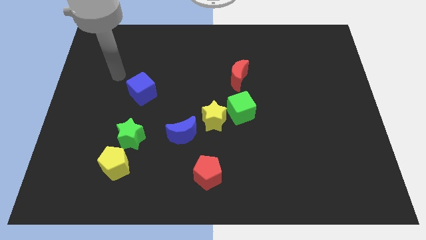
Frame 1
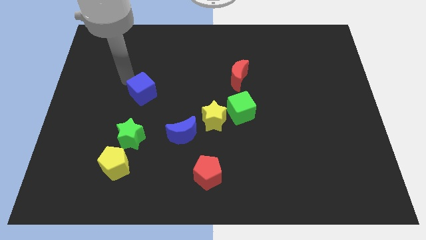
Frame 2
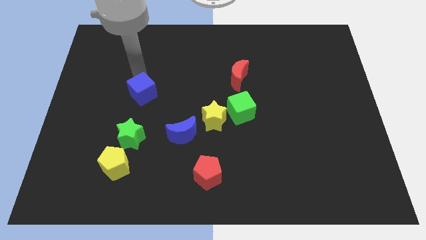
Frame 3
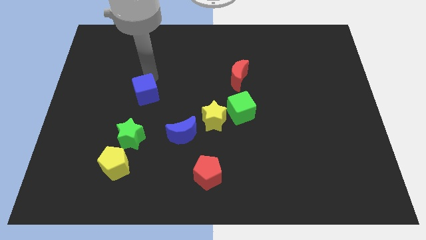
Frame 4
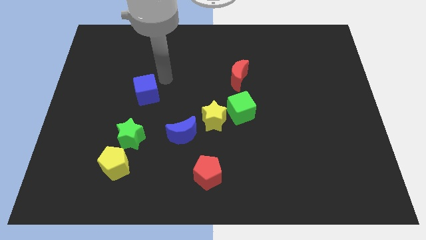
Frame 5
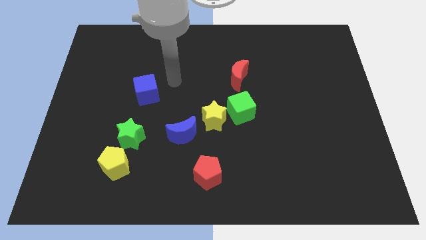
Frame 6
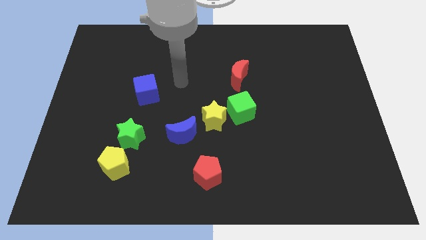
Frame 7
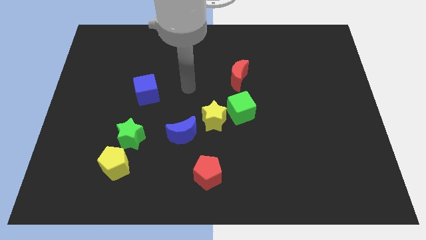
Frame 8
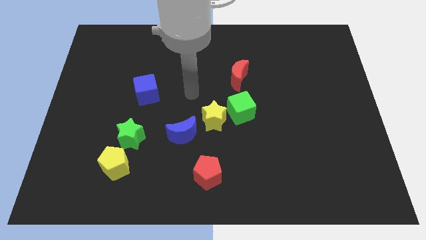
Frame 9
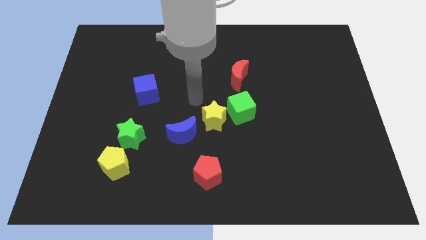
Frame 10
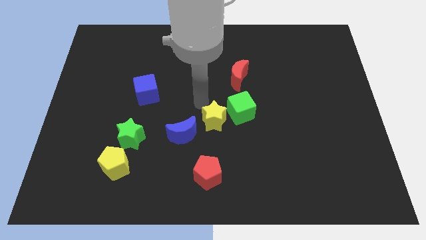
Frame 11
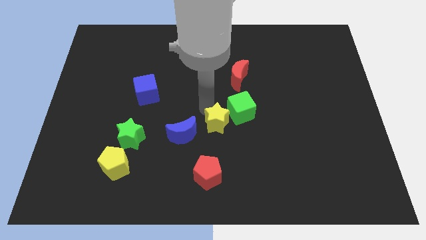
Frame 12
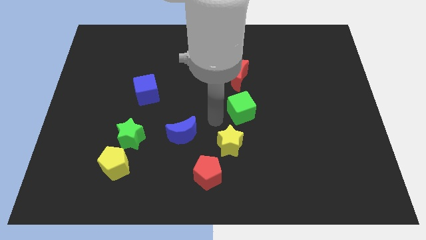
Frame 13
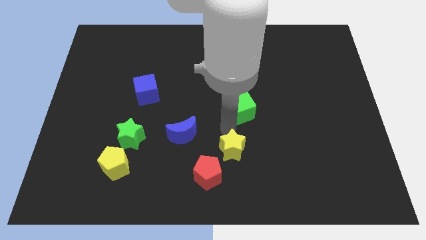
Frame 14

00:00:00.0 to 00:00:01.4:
move the green cube away from the yellow star

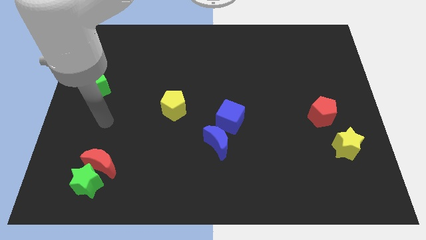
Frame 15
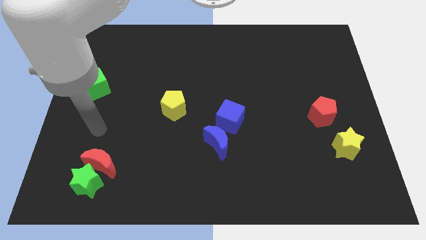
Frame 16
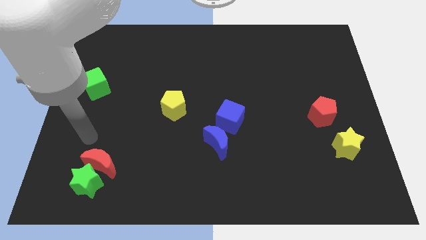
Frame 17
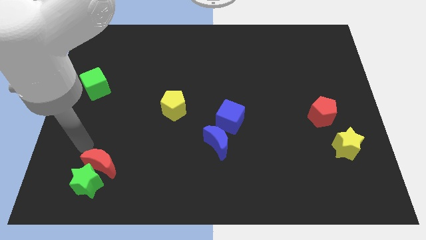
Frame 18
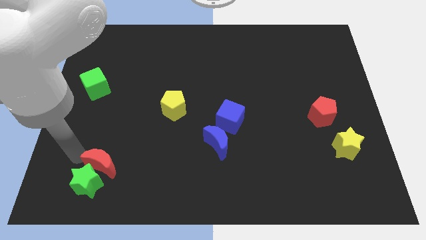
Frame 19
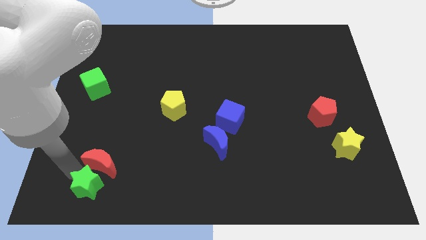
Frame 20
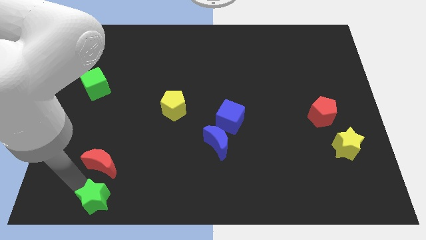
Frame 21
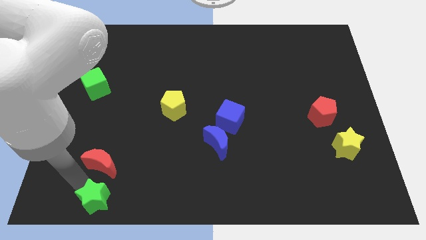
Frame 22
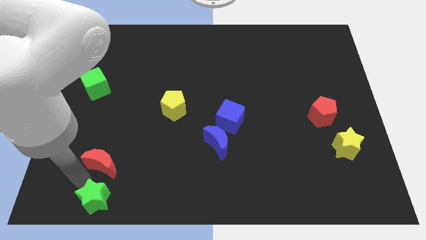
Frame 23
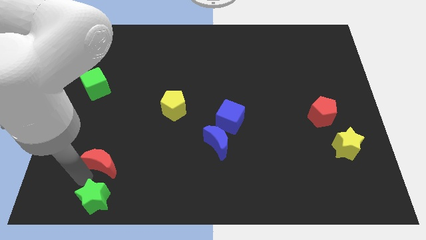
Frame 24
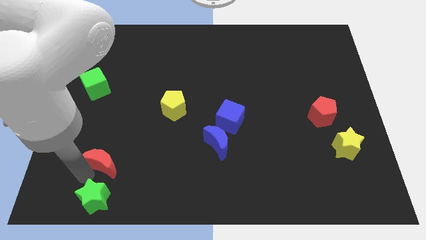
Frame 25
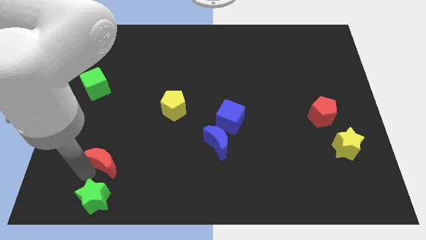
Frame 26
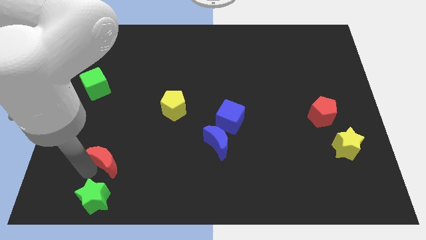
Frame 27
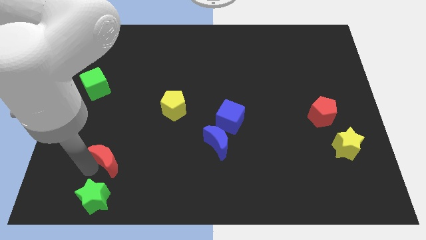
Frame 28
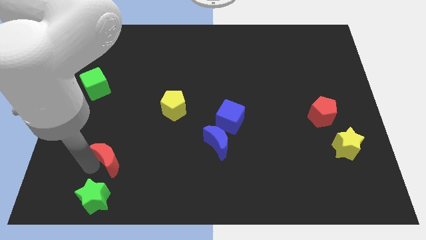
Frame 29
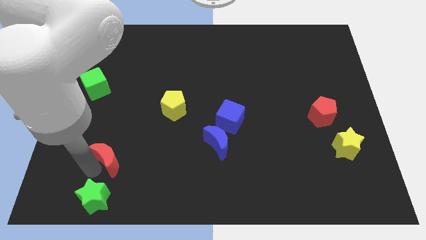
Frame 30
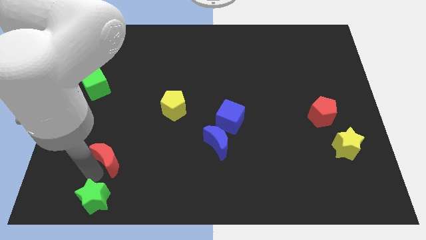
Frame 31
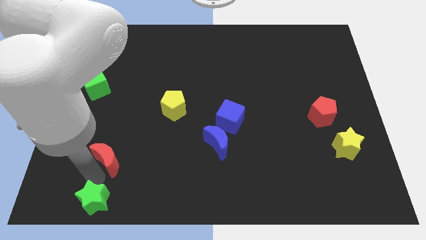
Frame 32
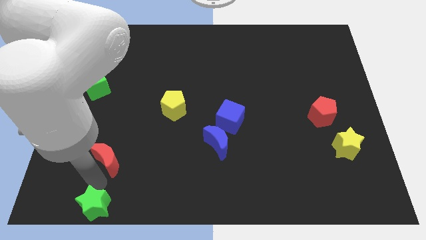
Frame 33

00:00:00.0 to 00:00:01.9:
separate the red moon from the green star

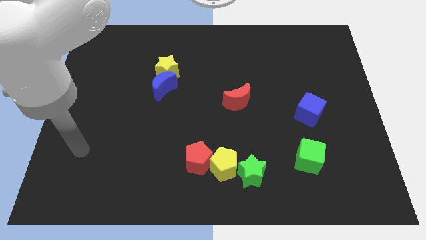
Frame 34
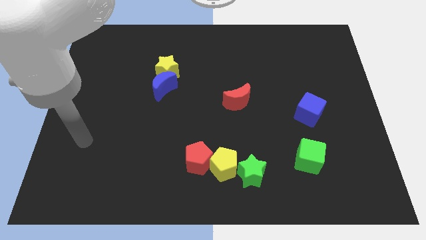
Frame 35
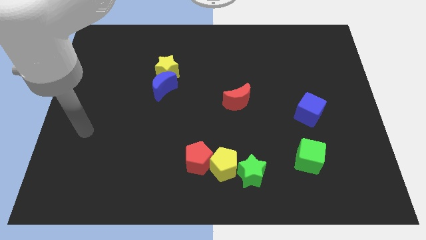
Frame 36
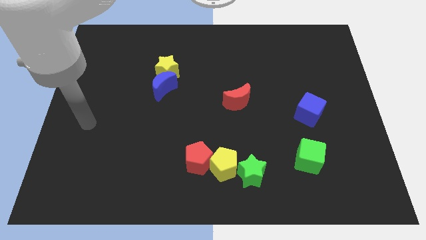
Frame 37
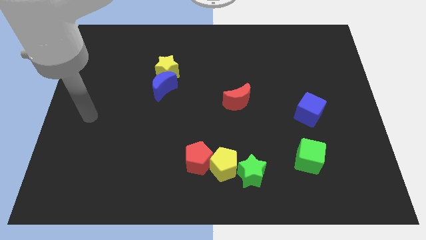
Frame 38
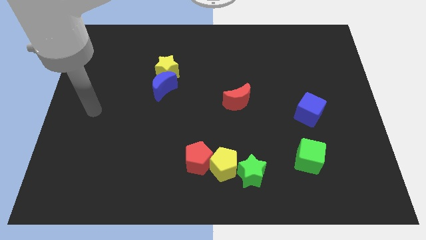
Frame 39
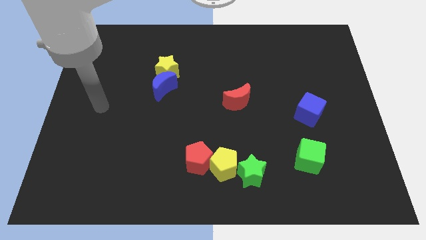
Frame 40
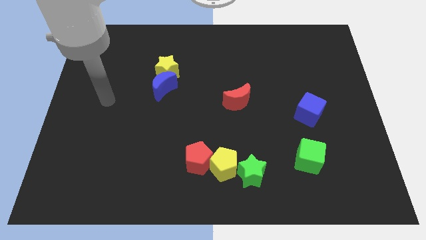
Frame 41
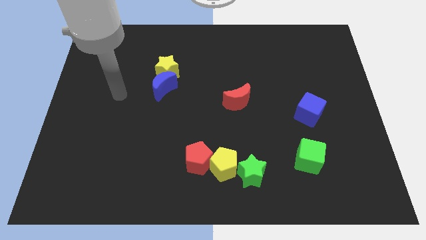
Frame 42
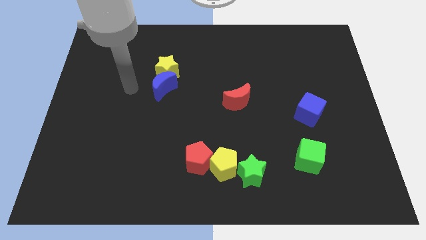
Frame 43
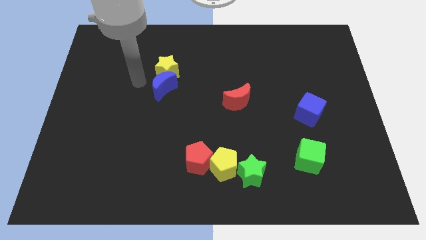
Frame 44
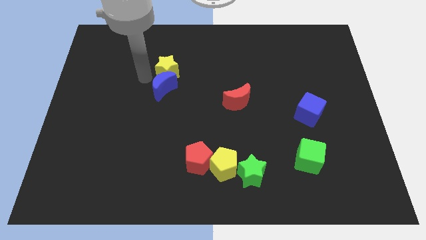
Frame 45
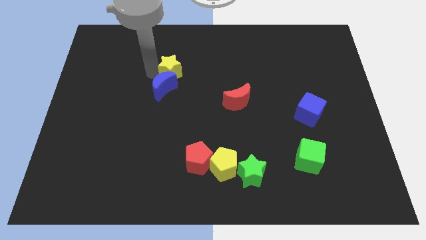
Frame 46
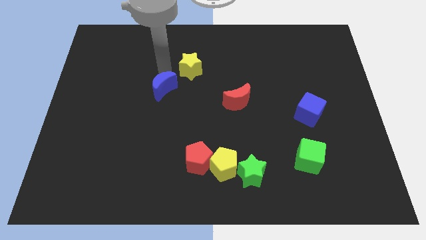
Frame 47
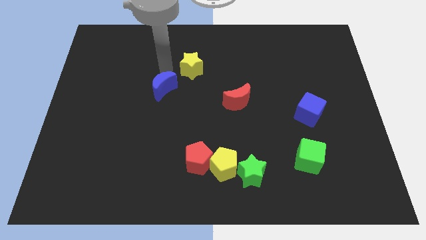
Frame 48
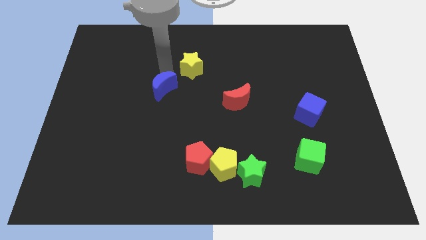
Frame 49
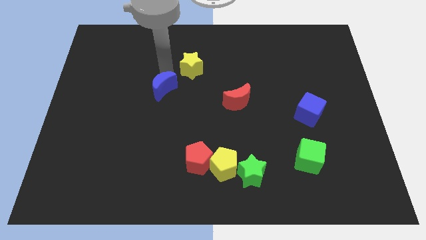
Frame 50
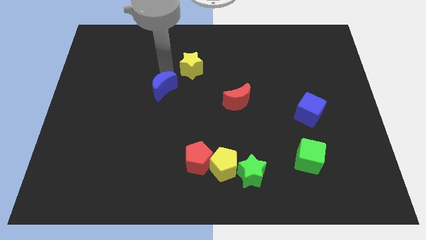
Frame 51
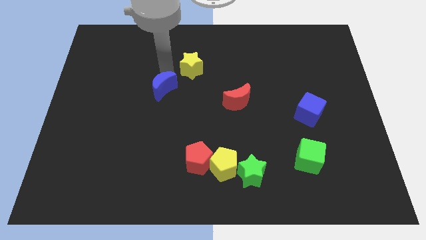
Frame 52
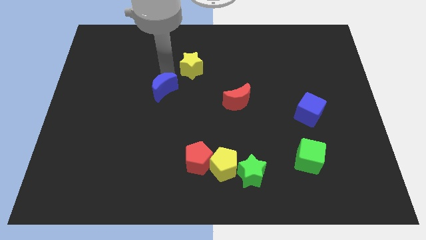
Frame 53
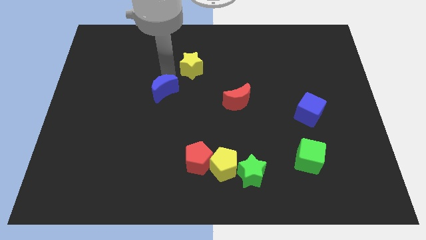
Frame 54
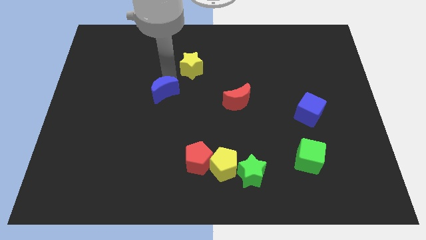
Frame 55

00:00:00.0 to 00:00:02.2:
separate the blue moon from the yellow star

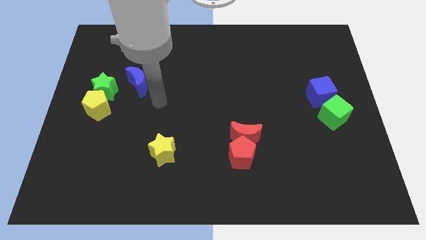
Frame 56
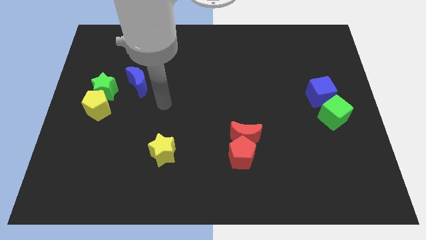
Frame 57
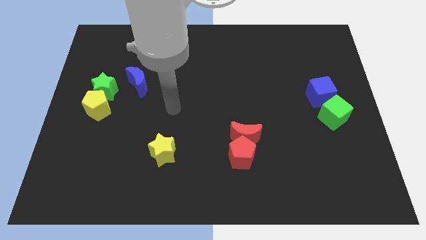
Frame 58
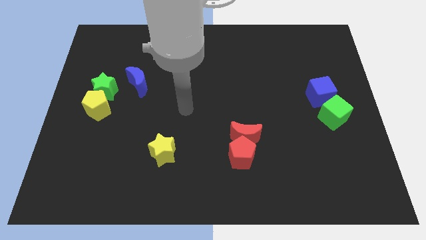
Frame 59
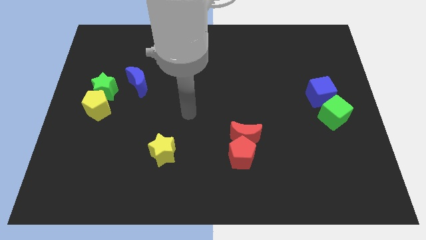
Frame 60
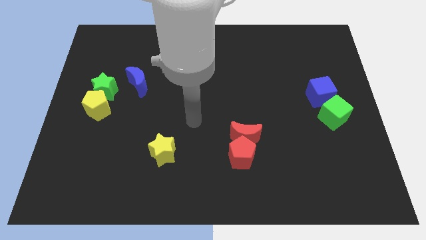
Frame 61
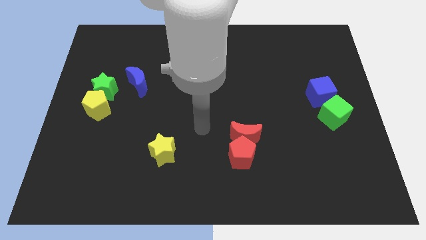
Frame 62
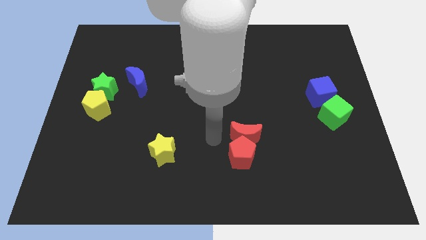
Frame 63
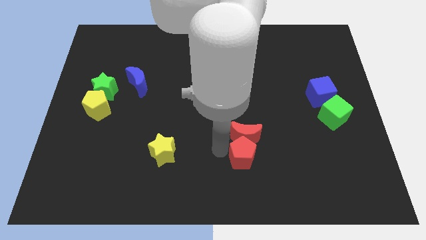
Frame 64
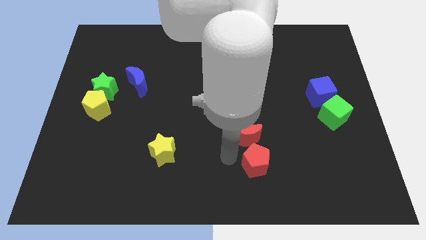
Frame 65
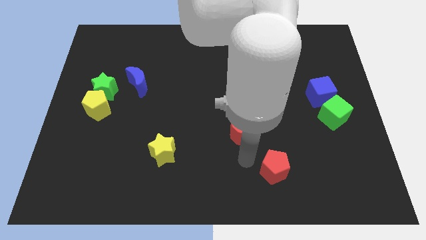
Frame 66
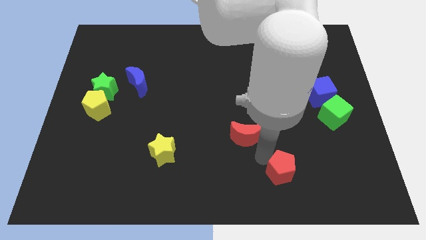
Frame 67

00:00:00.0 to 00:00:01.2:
pull the red moon apart from the red pentagon

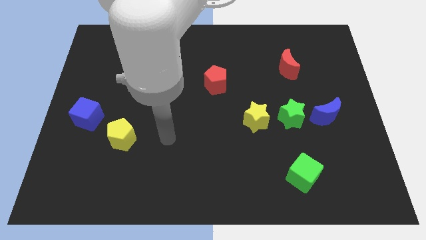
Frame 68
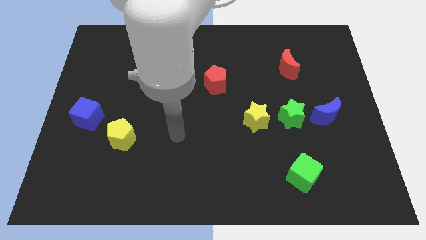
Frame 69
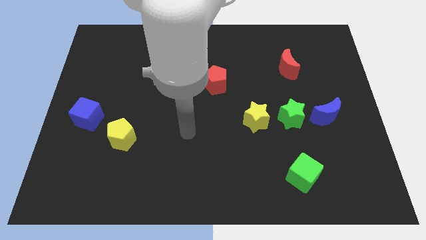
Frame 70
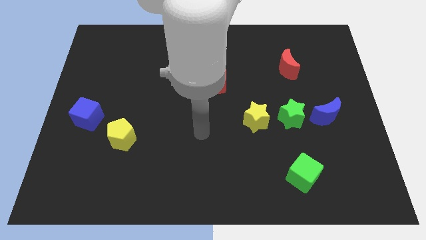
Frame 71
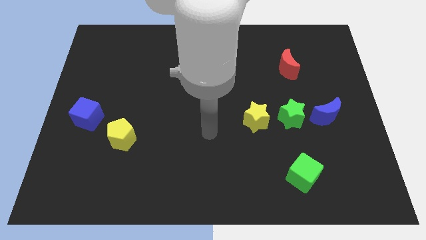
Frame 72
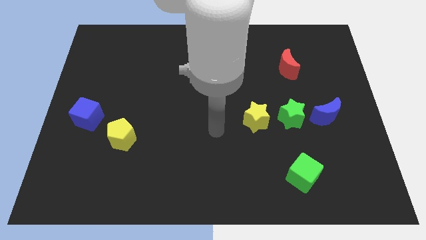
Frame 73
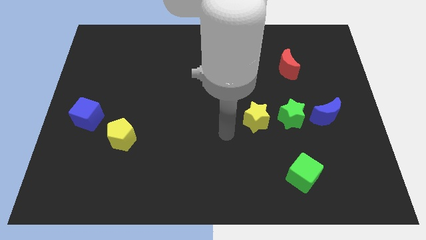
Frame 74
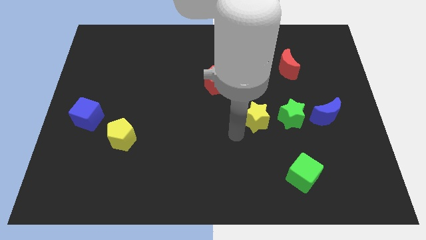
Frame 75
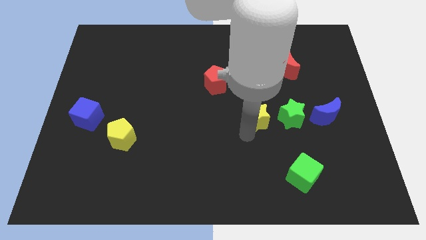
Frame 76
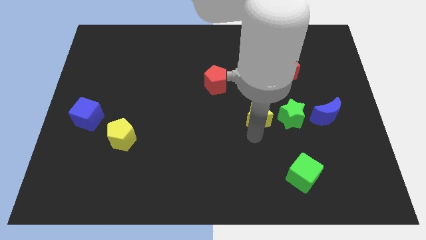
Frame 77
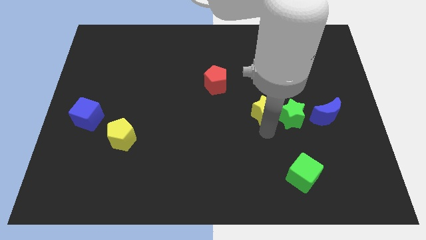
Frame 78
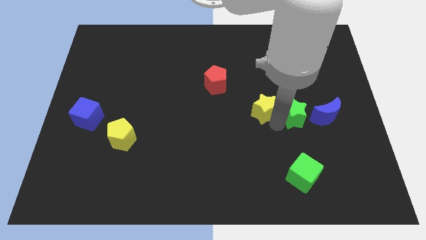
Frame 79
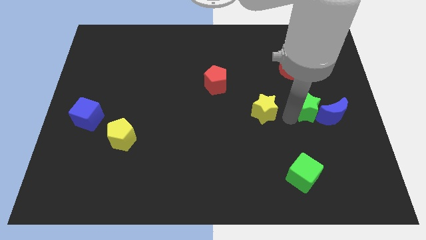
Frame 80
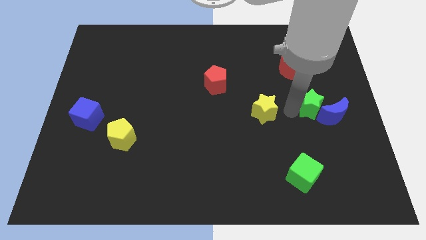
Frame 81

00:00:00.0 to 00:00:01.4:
move the yellow star away from the green star

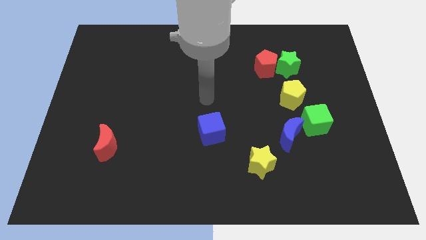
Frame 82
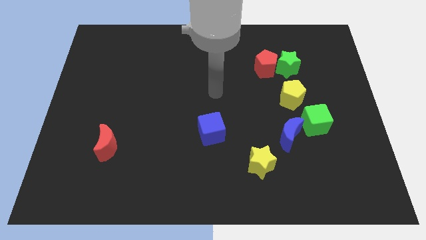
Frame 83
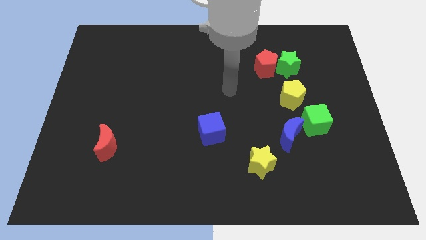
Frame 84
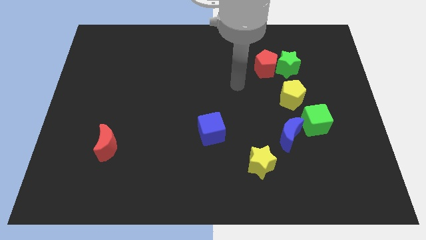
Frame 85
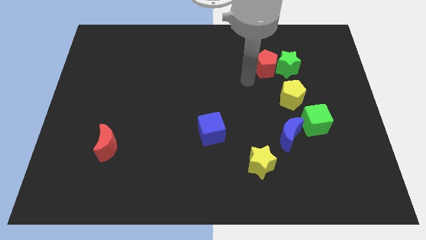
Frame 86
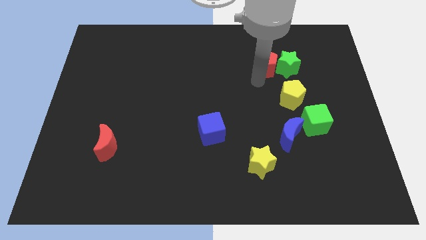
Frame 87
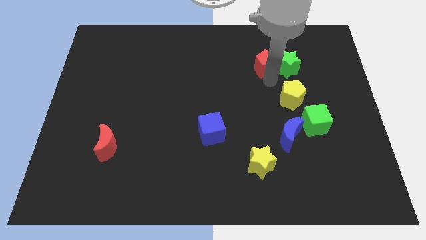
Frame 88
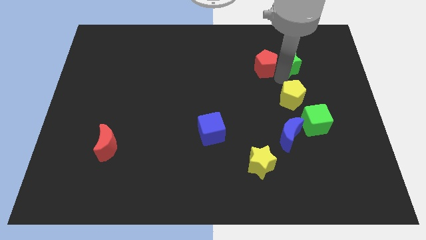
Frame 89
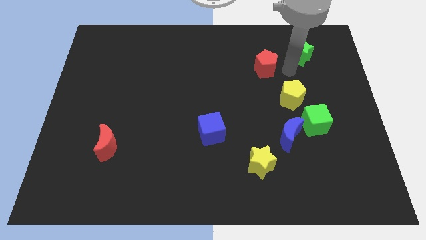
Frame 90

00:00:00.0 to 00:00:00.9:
pull the red pentagon apart from the green star
